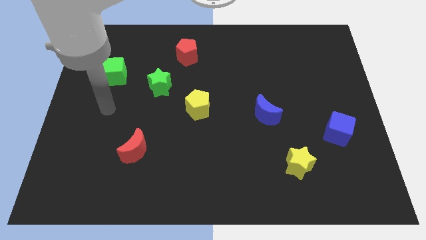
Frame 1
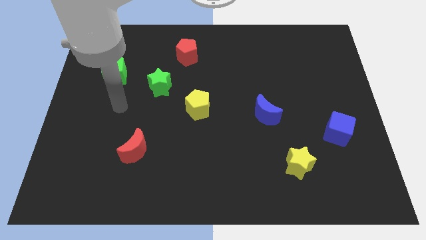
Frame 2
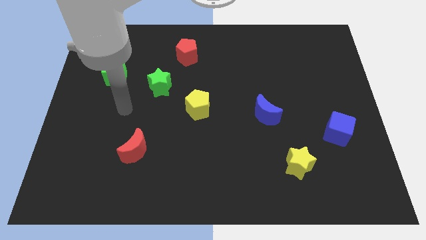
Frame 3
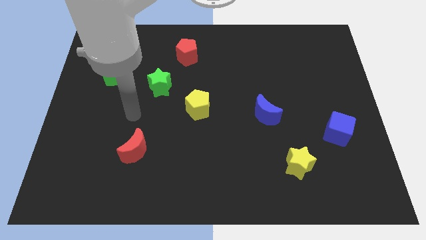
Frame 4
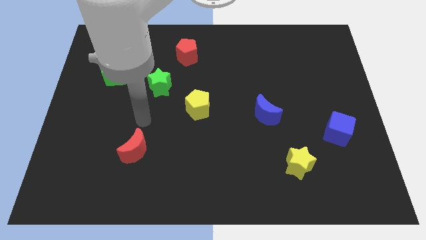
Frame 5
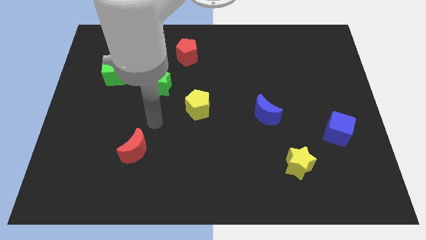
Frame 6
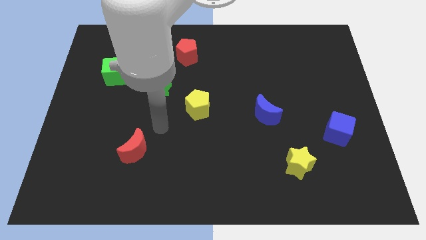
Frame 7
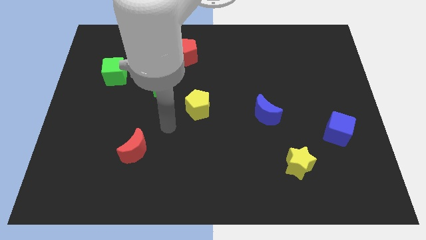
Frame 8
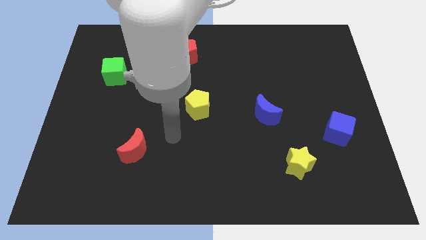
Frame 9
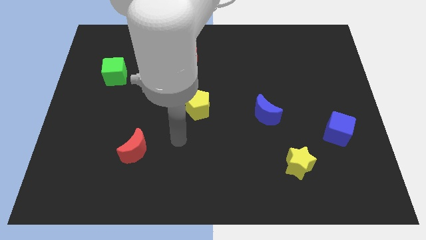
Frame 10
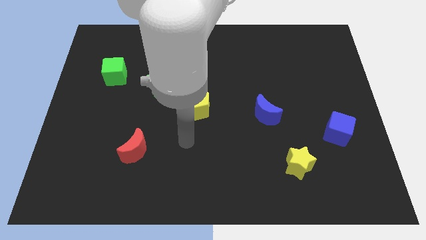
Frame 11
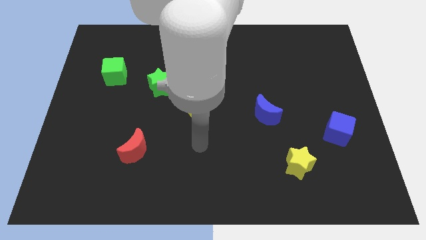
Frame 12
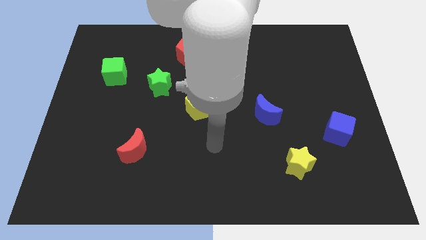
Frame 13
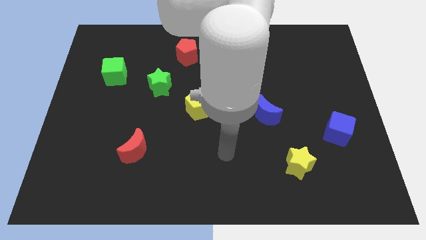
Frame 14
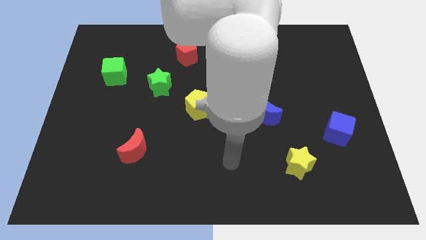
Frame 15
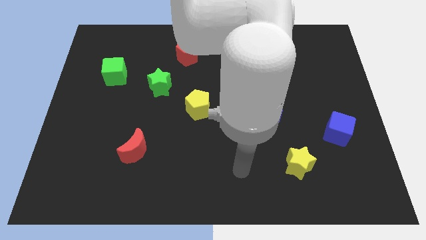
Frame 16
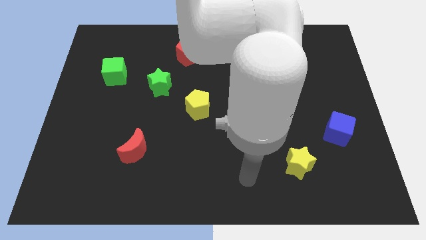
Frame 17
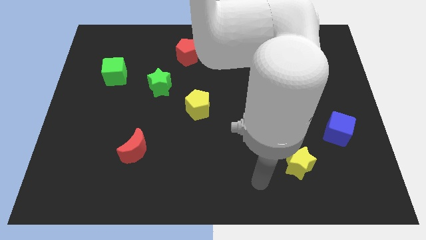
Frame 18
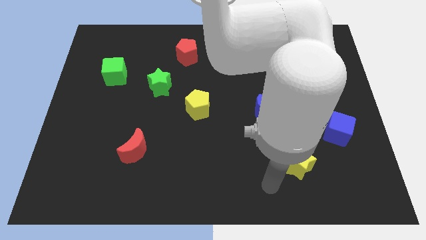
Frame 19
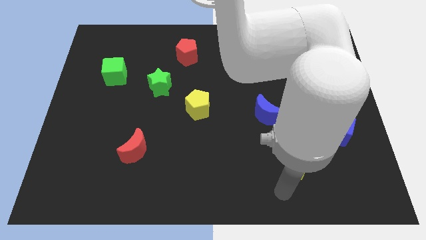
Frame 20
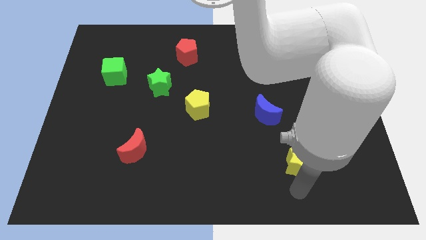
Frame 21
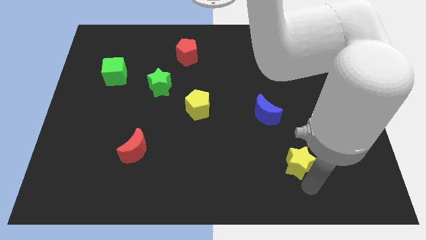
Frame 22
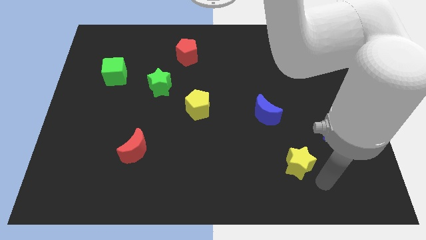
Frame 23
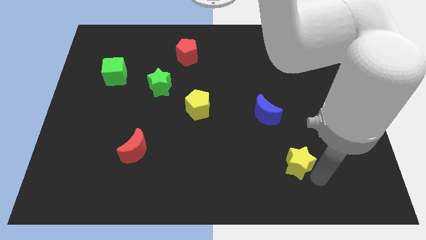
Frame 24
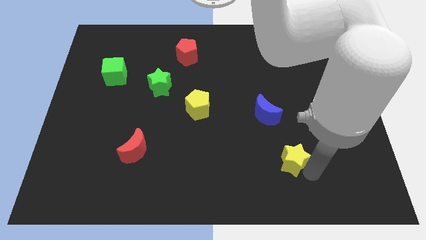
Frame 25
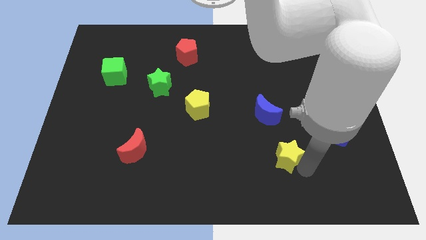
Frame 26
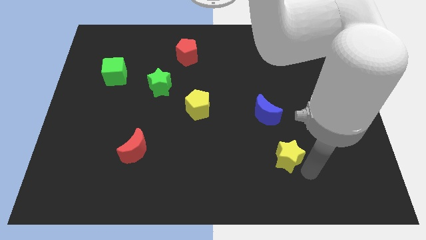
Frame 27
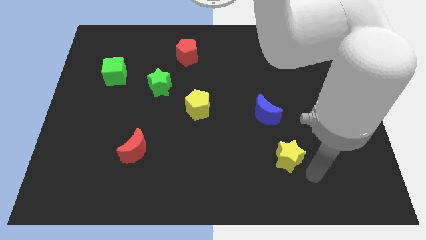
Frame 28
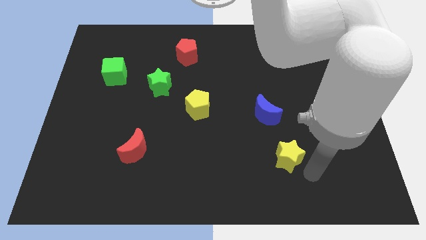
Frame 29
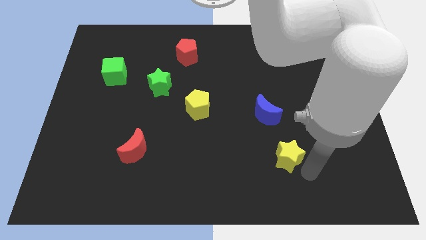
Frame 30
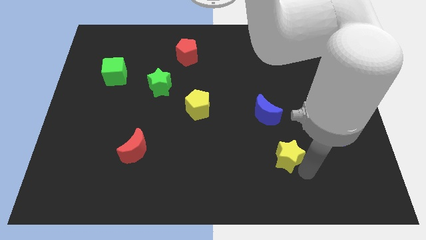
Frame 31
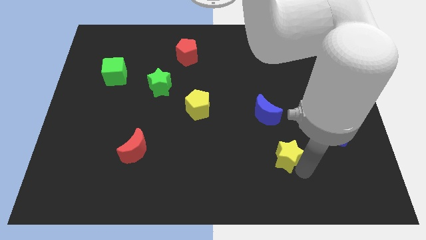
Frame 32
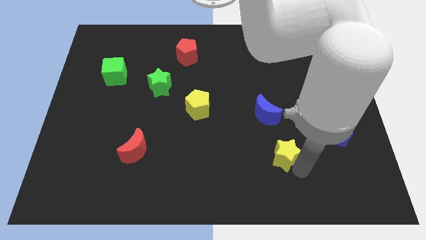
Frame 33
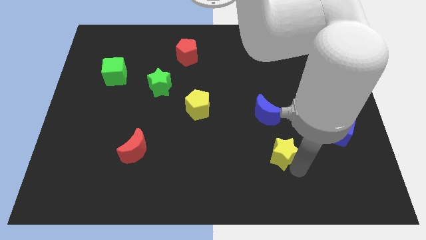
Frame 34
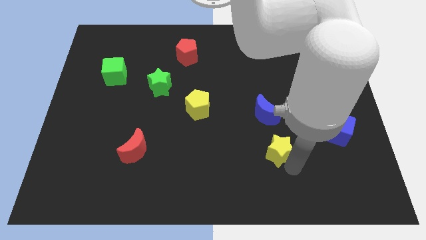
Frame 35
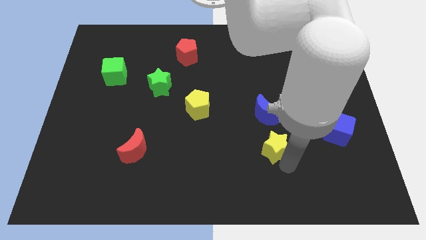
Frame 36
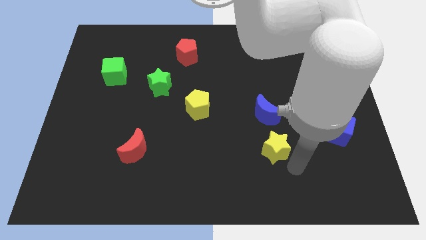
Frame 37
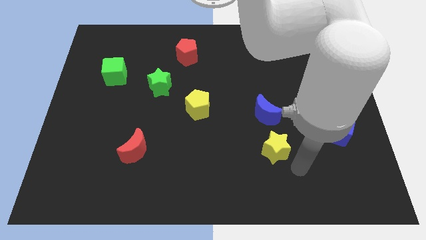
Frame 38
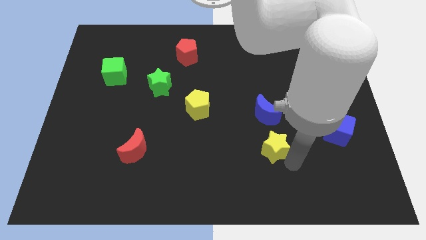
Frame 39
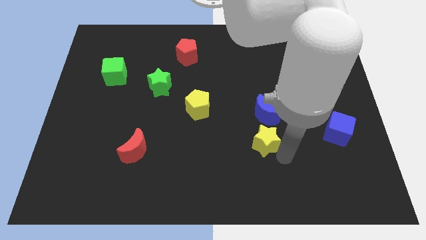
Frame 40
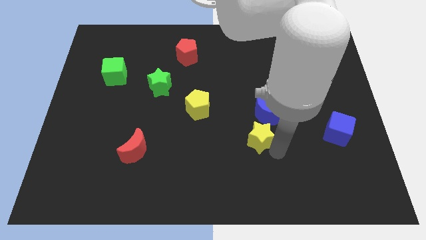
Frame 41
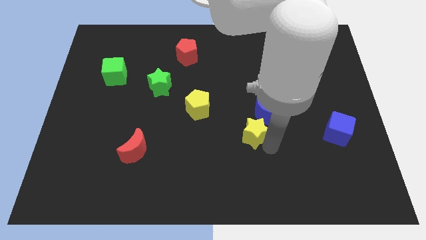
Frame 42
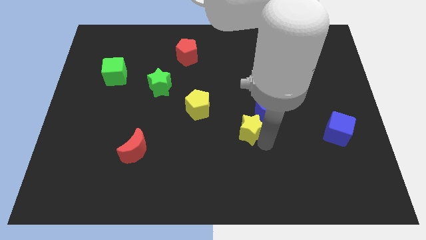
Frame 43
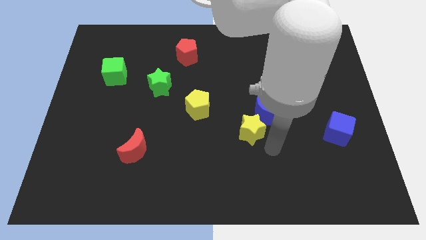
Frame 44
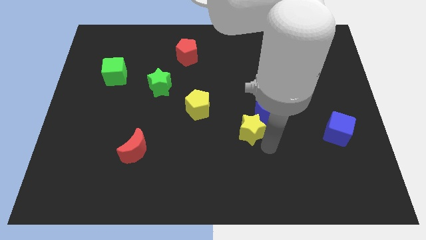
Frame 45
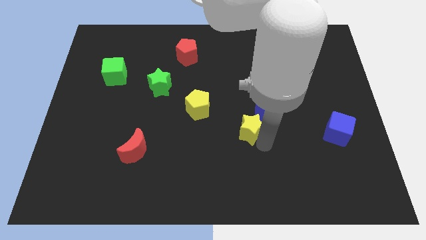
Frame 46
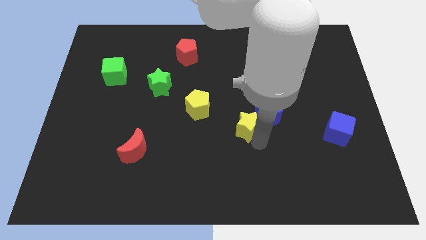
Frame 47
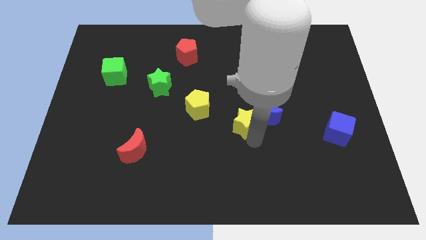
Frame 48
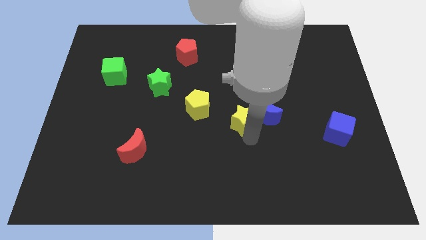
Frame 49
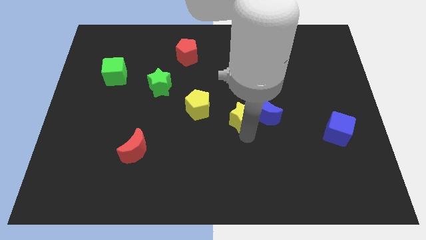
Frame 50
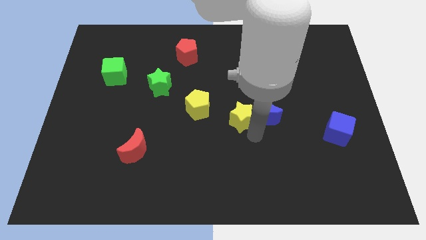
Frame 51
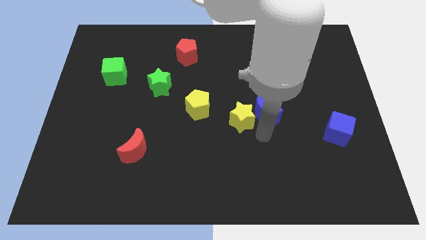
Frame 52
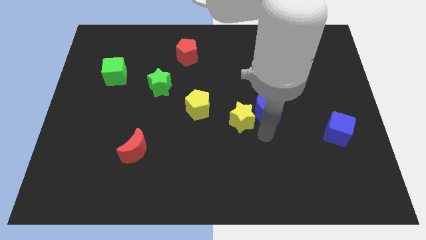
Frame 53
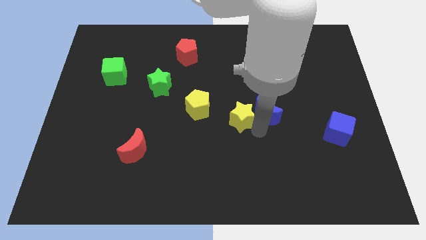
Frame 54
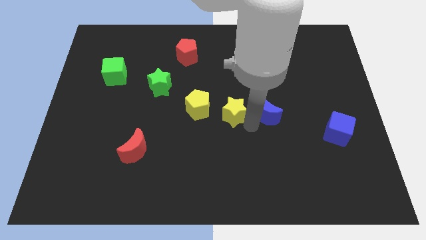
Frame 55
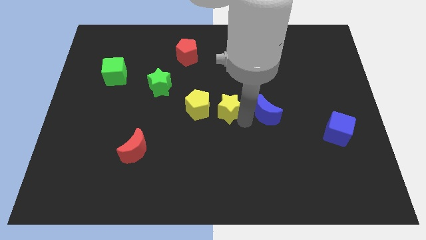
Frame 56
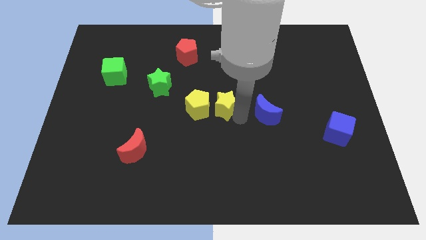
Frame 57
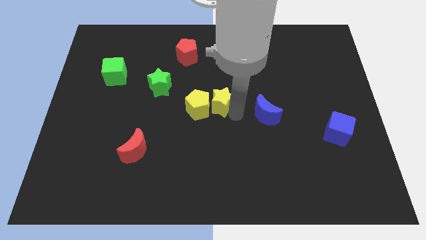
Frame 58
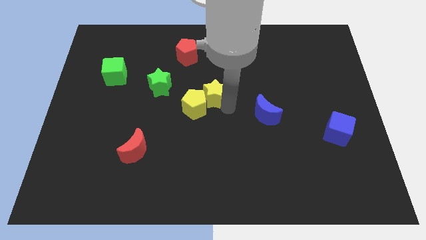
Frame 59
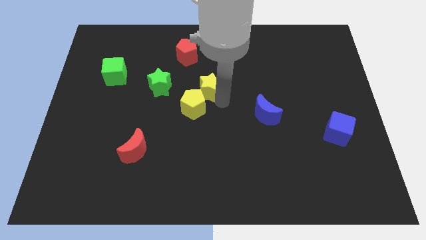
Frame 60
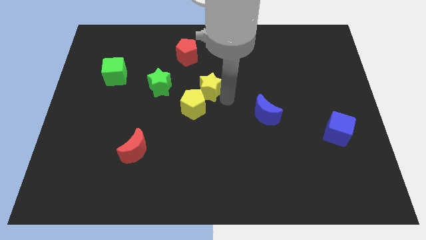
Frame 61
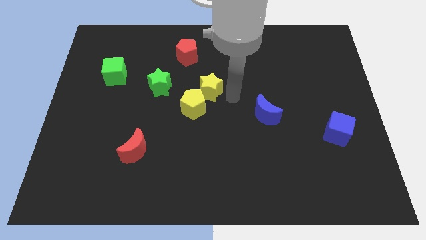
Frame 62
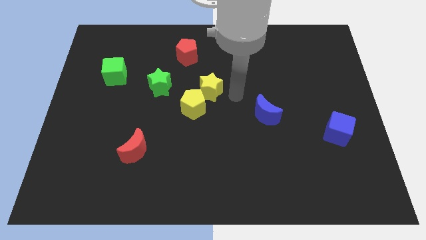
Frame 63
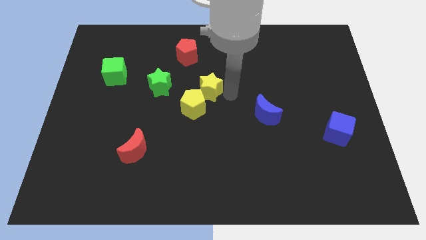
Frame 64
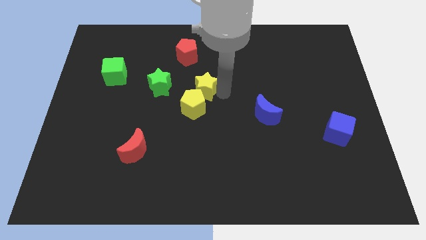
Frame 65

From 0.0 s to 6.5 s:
slide the yellow star to the bottom of the red pentagon

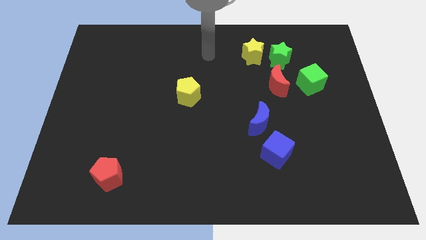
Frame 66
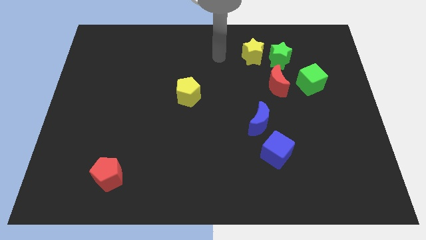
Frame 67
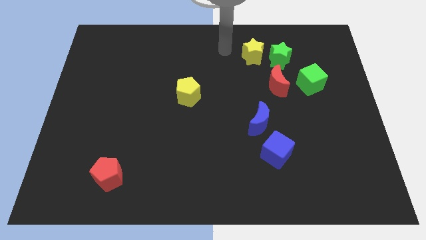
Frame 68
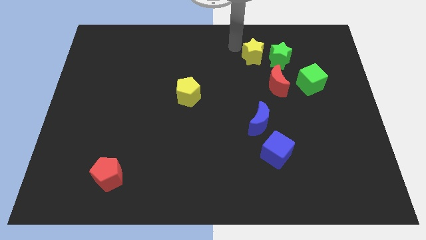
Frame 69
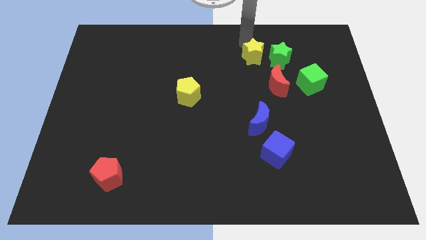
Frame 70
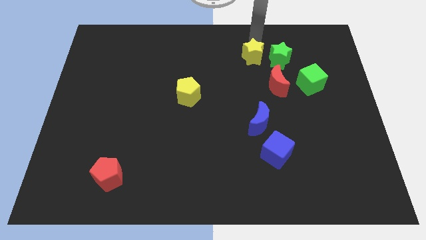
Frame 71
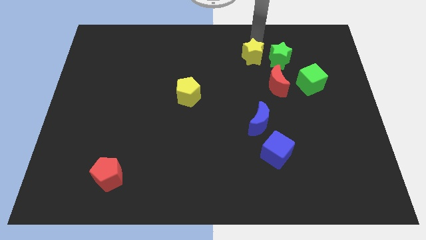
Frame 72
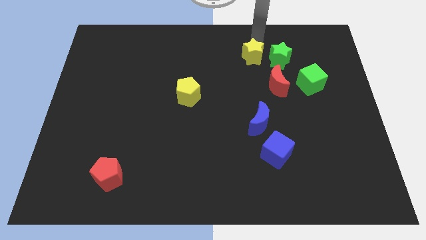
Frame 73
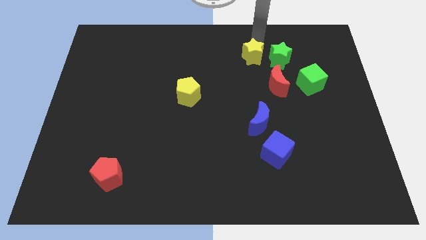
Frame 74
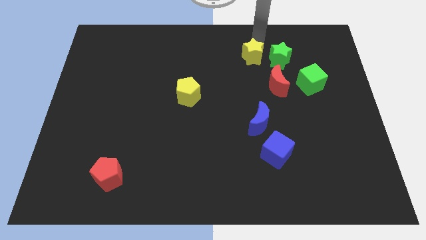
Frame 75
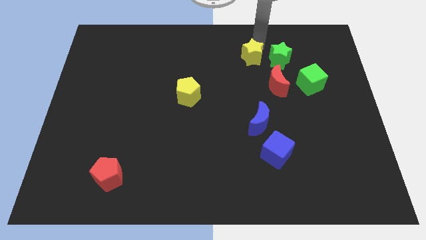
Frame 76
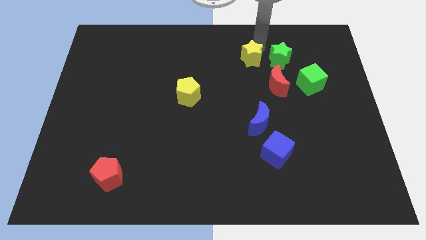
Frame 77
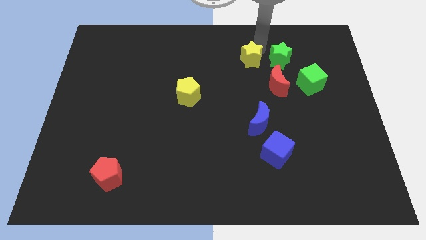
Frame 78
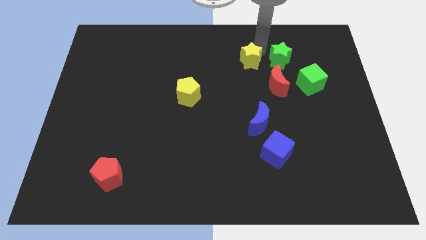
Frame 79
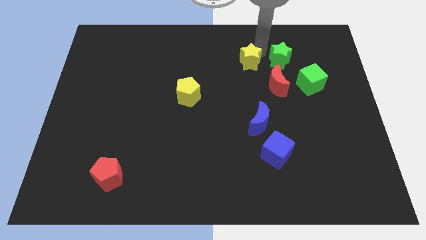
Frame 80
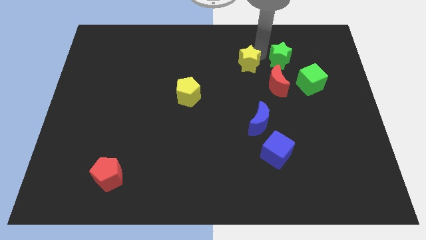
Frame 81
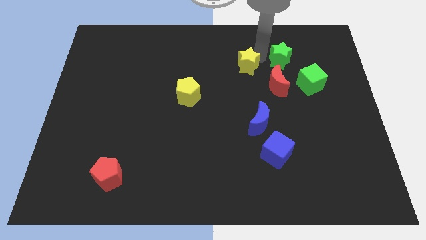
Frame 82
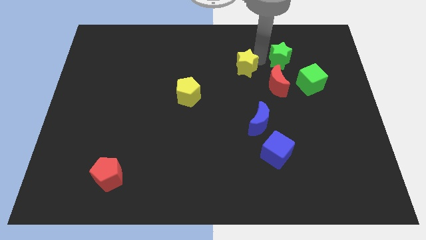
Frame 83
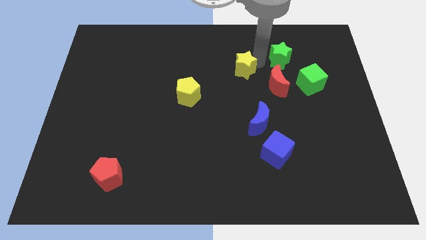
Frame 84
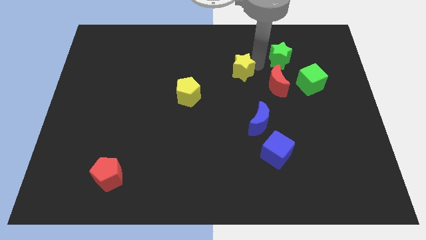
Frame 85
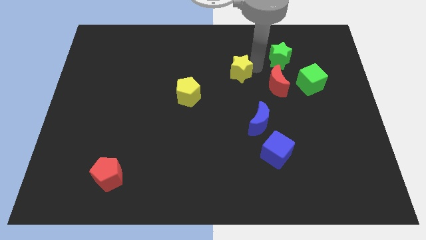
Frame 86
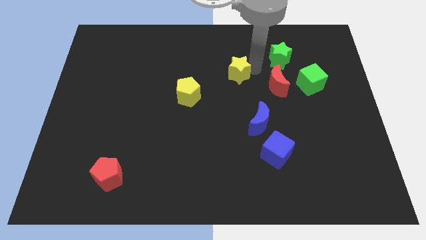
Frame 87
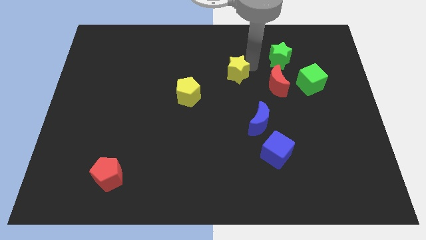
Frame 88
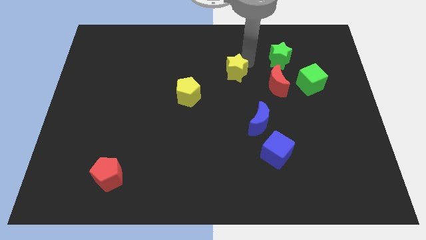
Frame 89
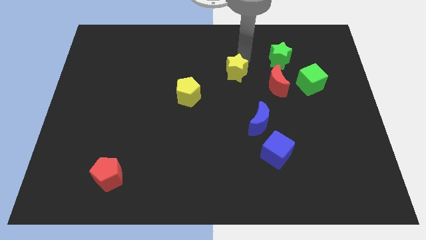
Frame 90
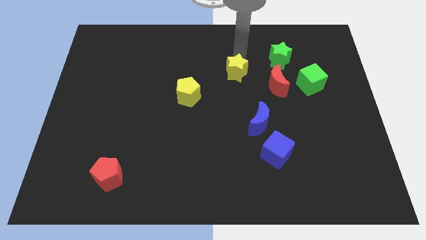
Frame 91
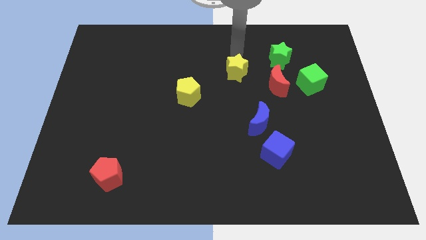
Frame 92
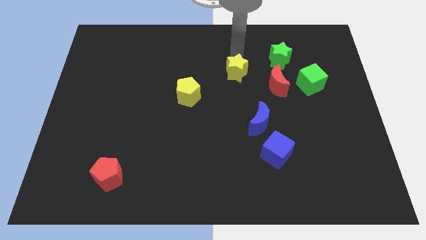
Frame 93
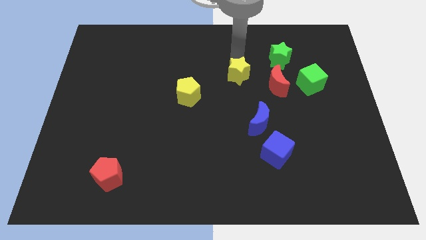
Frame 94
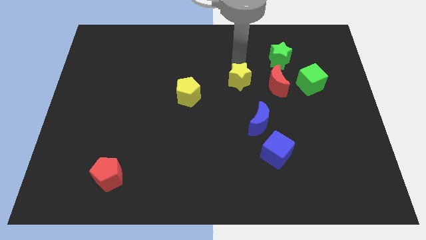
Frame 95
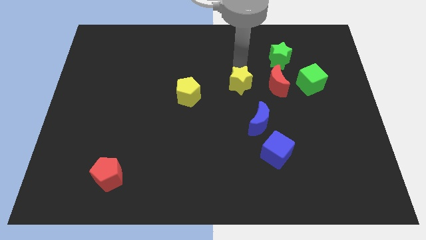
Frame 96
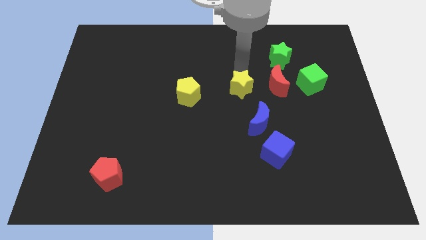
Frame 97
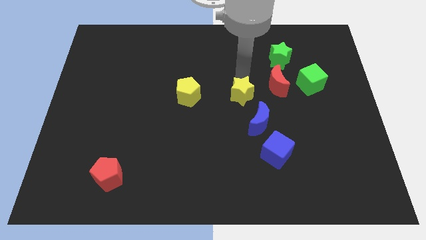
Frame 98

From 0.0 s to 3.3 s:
slide the yellow star to the top left side of the blue moon
